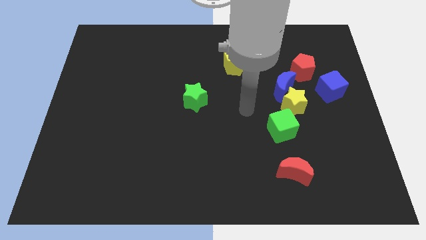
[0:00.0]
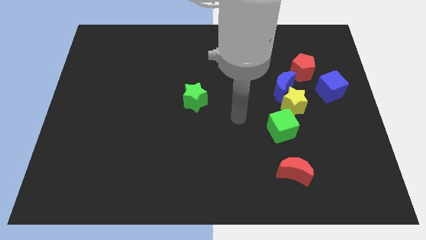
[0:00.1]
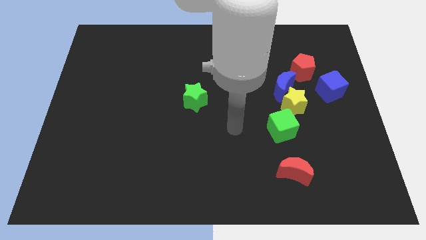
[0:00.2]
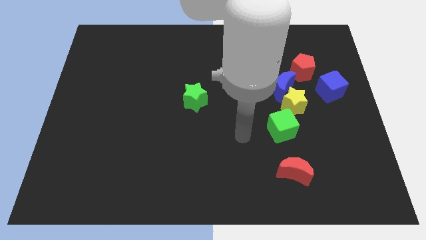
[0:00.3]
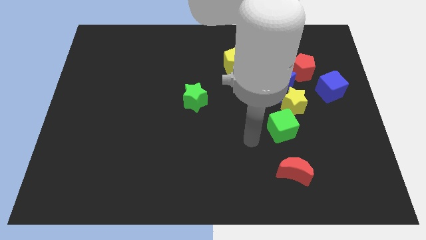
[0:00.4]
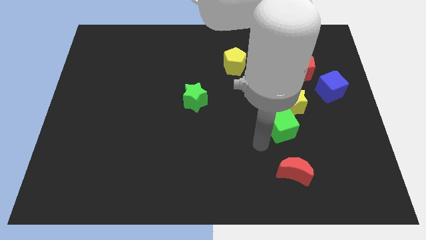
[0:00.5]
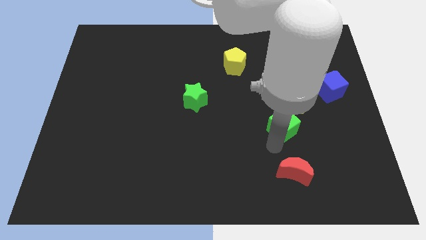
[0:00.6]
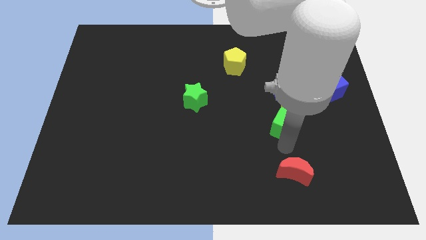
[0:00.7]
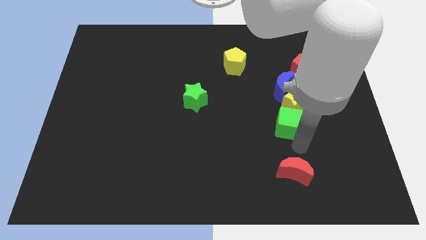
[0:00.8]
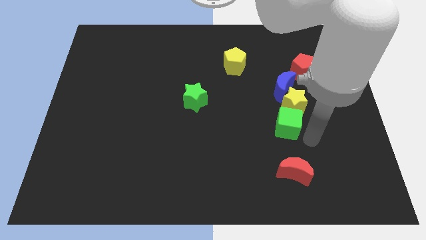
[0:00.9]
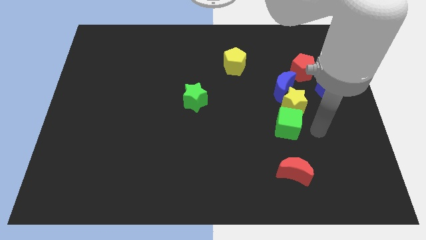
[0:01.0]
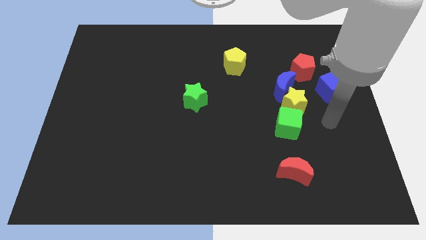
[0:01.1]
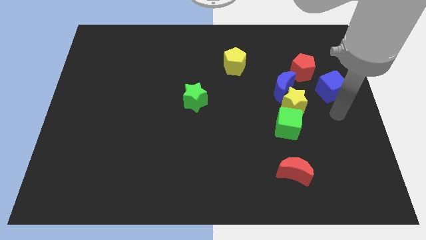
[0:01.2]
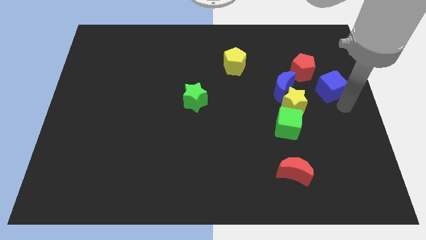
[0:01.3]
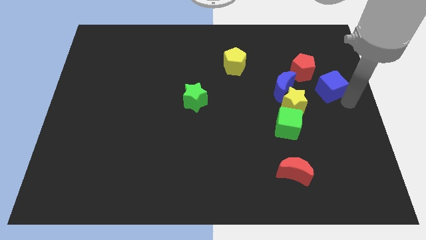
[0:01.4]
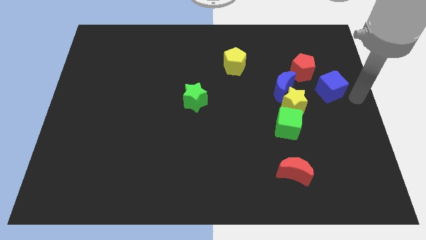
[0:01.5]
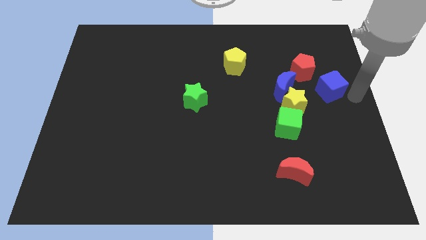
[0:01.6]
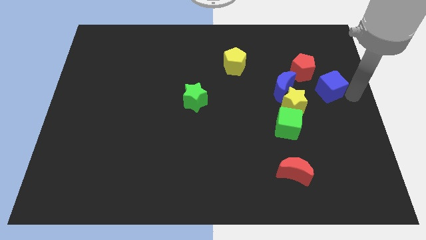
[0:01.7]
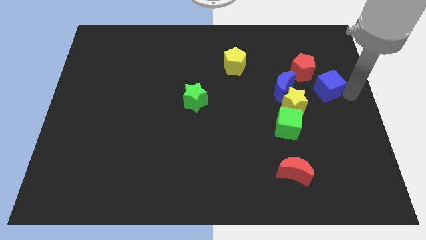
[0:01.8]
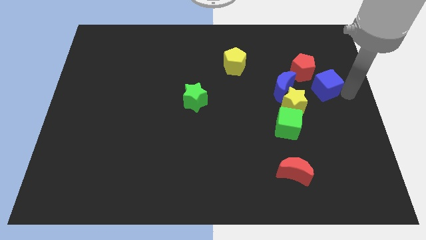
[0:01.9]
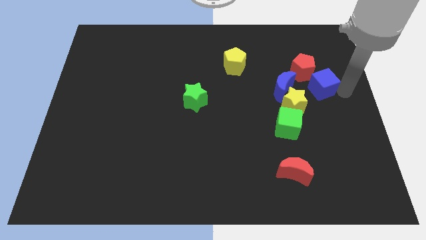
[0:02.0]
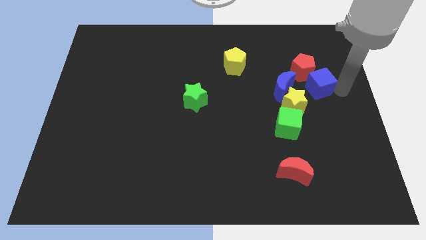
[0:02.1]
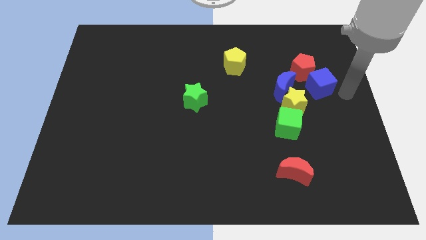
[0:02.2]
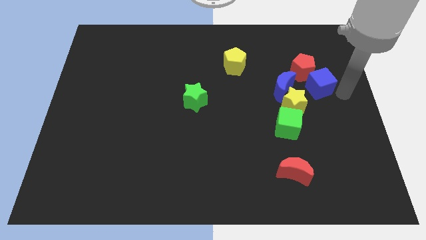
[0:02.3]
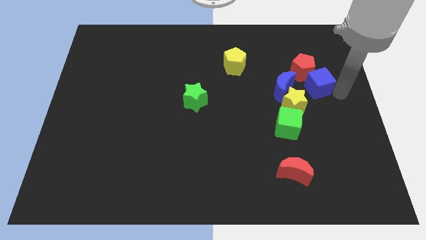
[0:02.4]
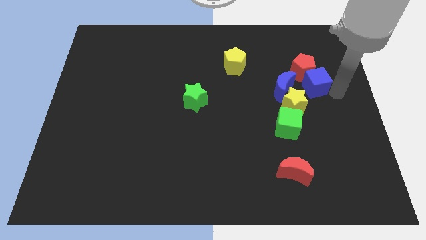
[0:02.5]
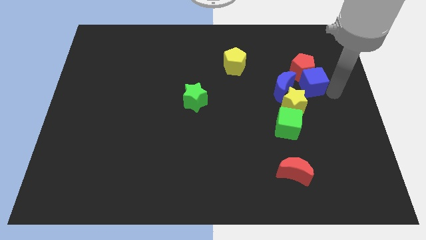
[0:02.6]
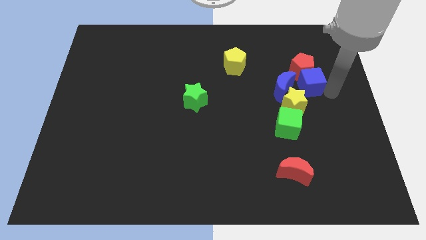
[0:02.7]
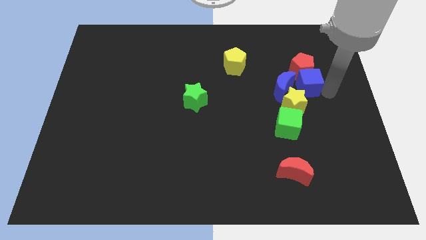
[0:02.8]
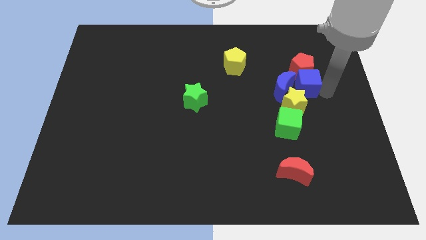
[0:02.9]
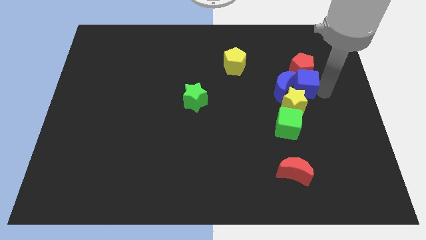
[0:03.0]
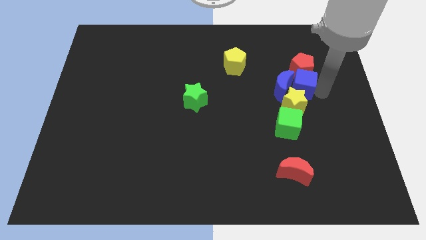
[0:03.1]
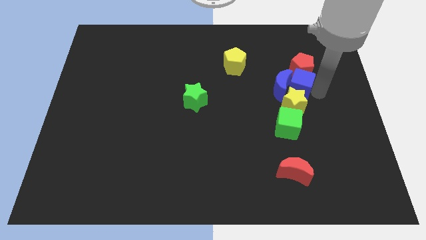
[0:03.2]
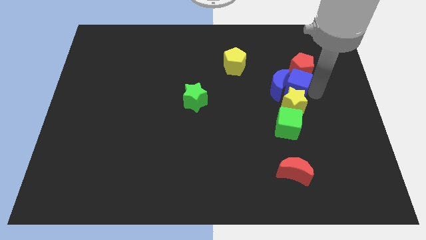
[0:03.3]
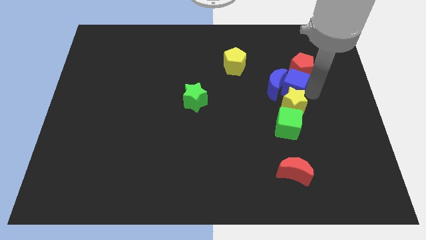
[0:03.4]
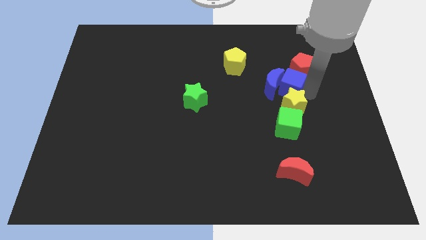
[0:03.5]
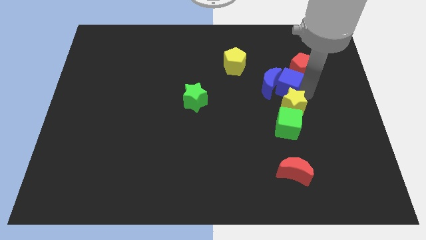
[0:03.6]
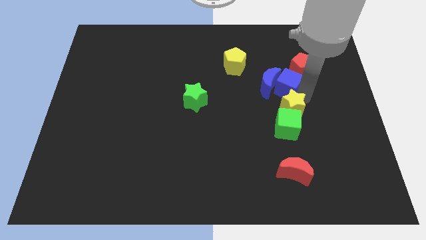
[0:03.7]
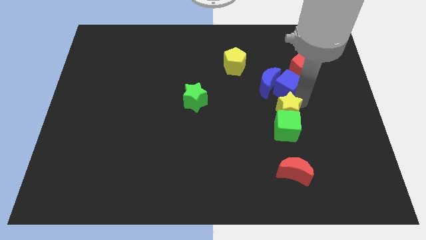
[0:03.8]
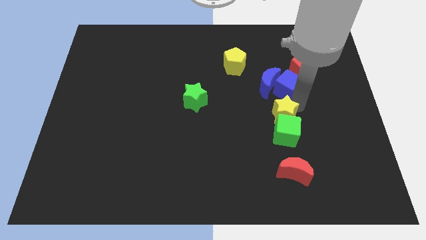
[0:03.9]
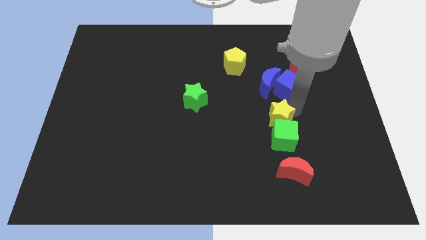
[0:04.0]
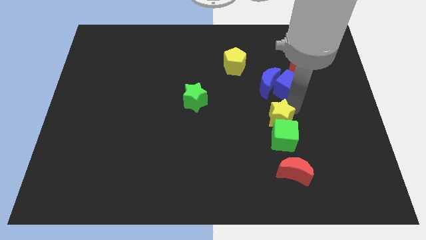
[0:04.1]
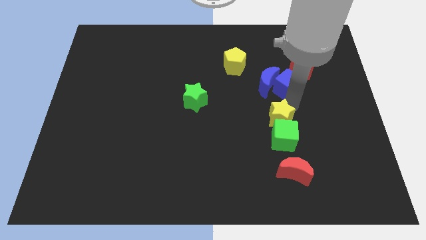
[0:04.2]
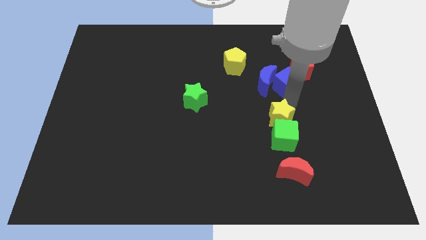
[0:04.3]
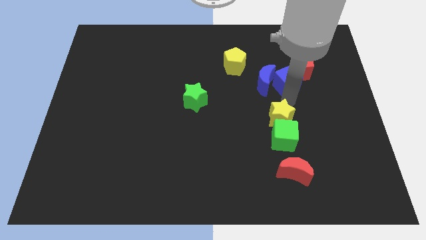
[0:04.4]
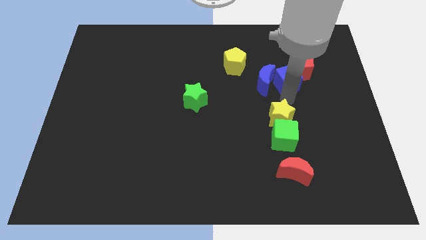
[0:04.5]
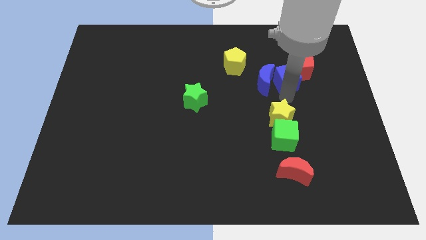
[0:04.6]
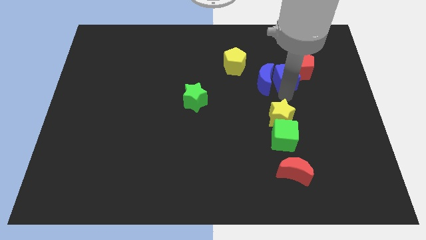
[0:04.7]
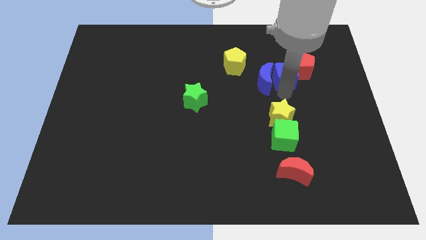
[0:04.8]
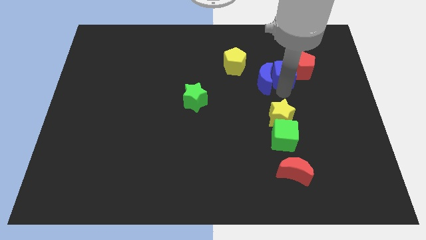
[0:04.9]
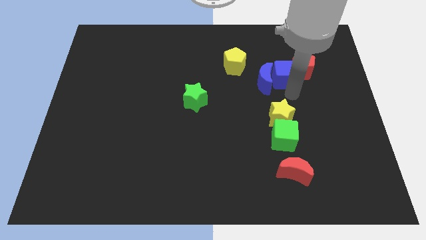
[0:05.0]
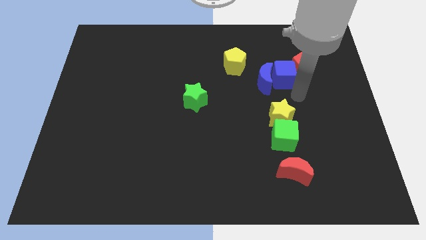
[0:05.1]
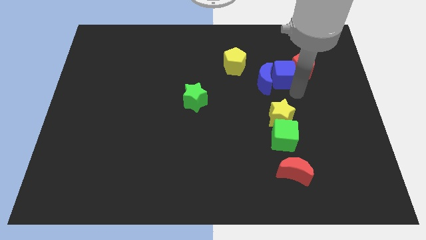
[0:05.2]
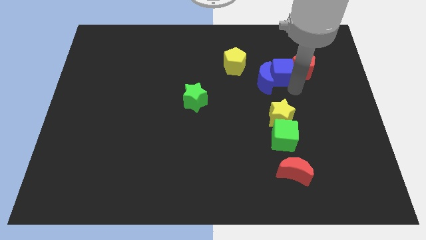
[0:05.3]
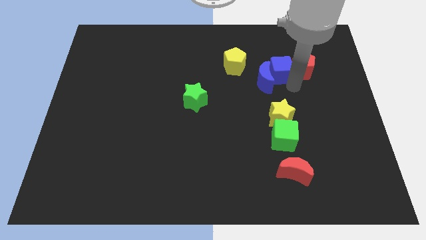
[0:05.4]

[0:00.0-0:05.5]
slide the blue cube above the blue moon

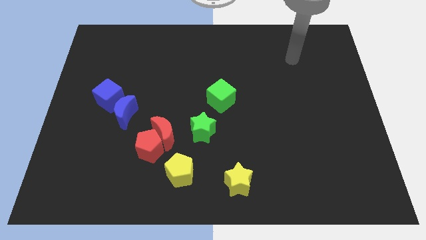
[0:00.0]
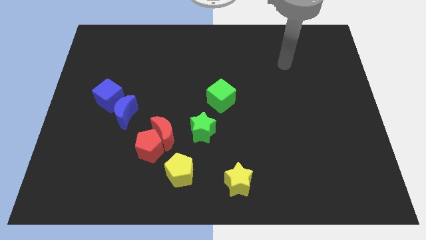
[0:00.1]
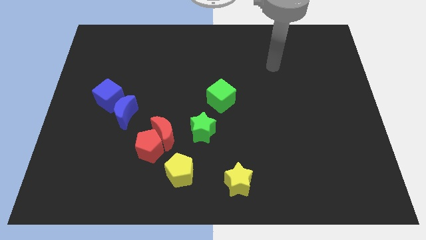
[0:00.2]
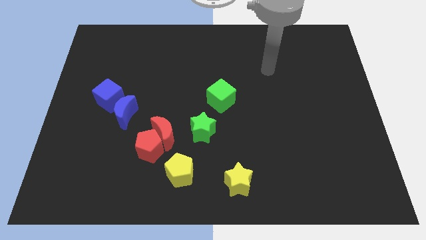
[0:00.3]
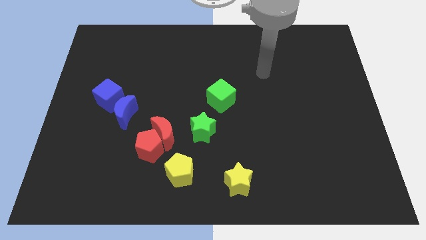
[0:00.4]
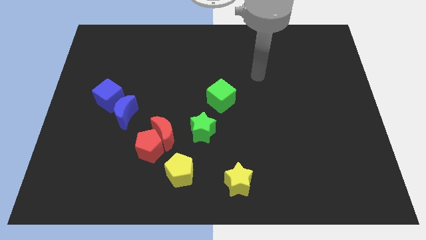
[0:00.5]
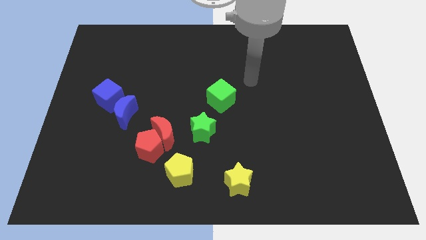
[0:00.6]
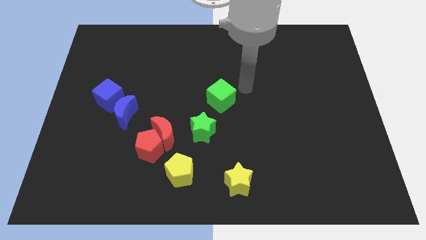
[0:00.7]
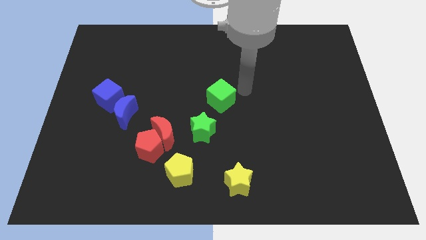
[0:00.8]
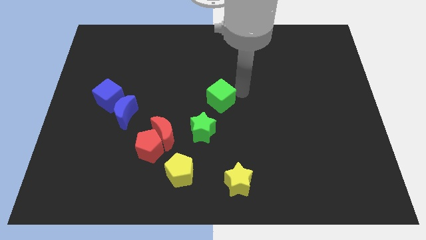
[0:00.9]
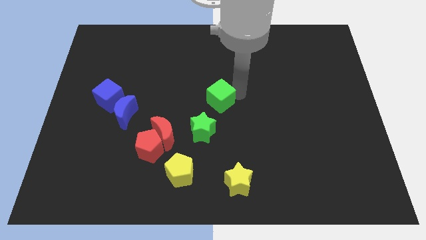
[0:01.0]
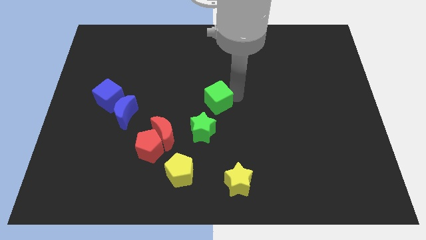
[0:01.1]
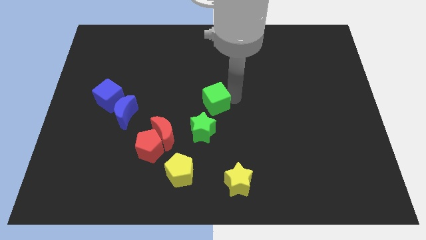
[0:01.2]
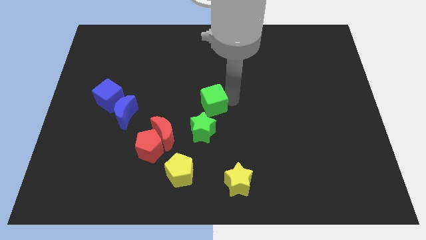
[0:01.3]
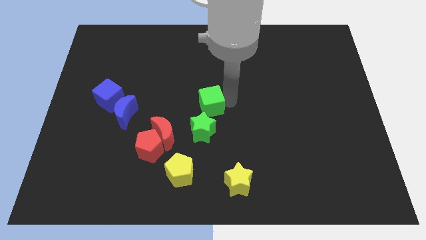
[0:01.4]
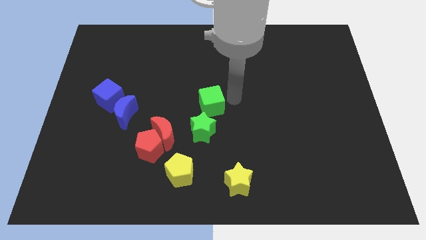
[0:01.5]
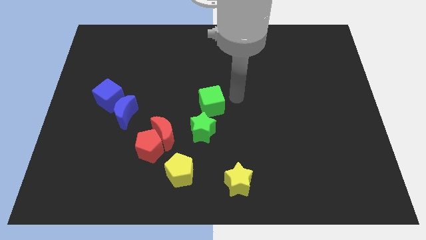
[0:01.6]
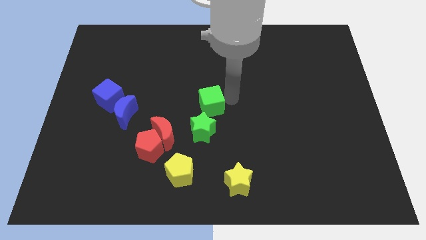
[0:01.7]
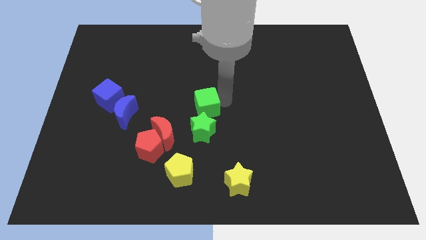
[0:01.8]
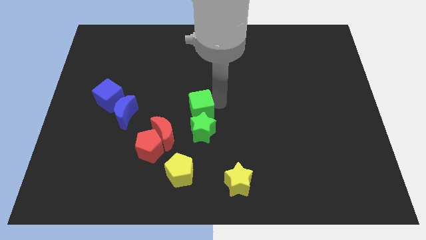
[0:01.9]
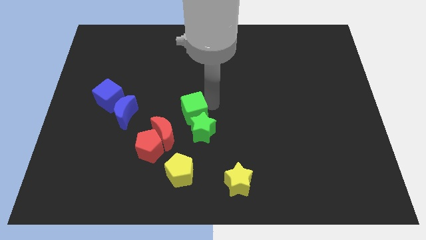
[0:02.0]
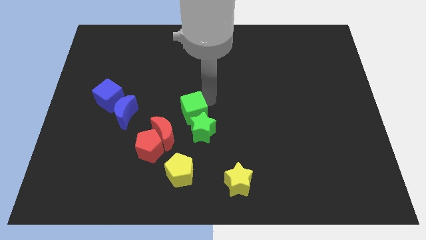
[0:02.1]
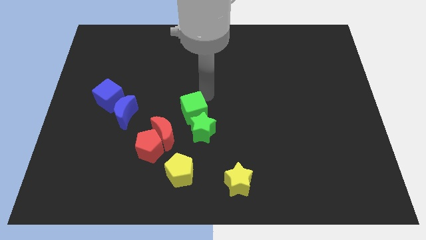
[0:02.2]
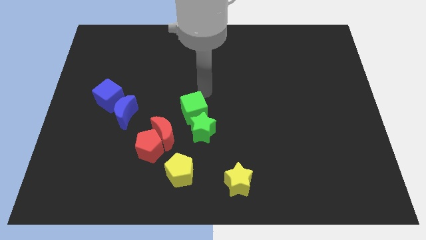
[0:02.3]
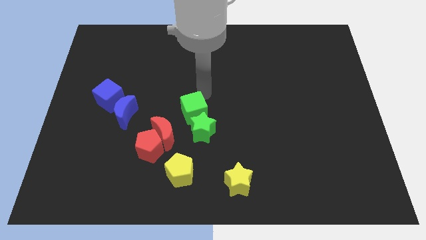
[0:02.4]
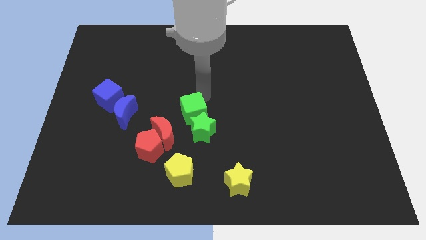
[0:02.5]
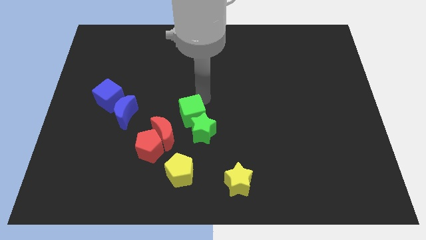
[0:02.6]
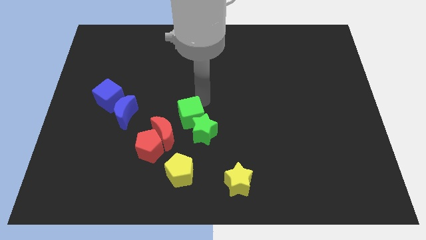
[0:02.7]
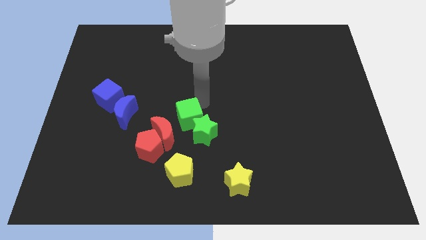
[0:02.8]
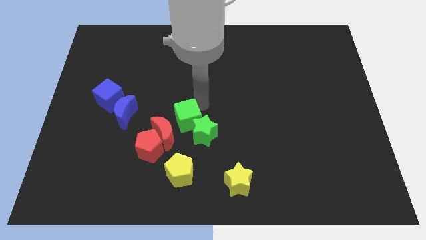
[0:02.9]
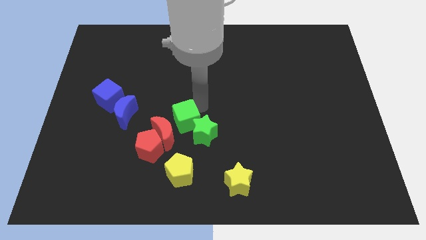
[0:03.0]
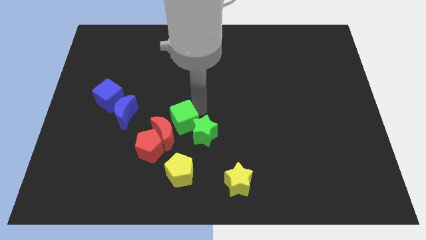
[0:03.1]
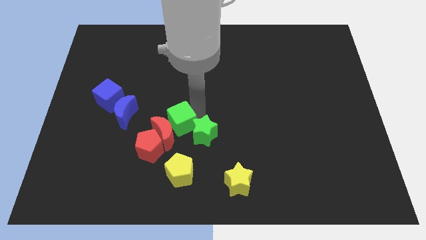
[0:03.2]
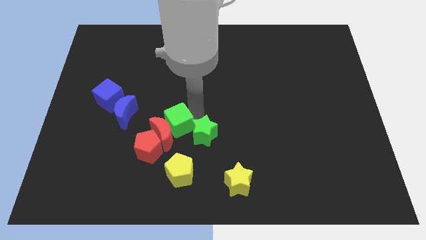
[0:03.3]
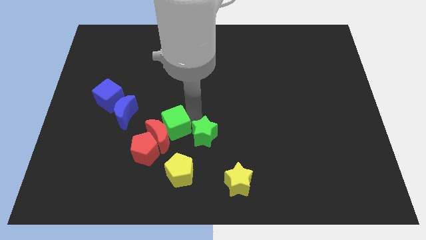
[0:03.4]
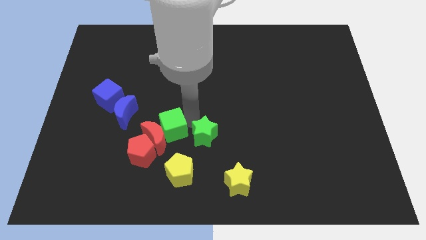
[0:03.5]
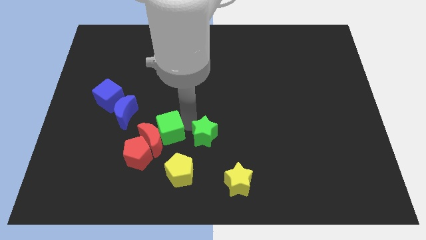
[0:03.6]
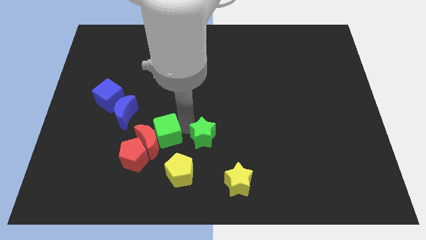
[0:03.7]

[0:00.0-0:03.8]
slide the green cube to the bottom right of the red moon
